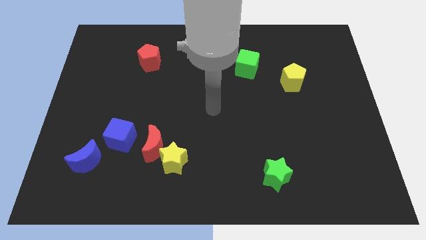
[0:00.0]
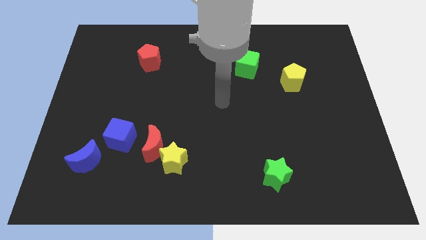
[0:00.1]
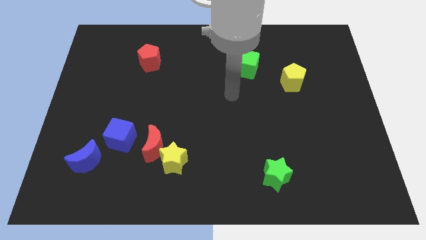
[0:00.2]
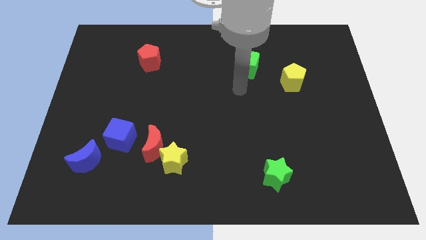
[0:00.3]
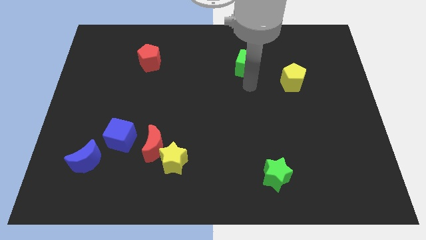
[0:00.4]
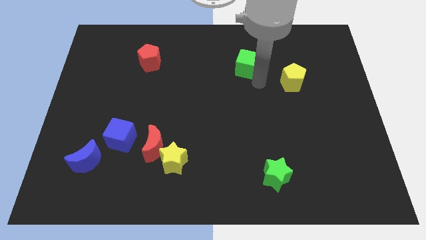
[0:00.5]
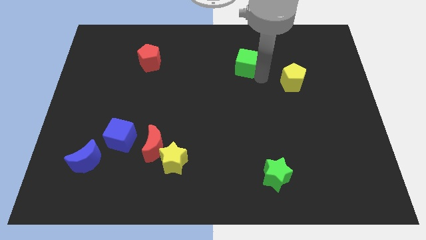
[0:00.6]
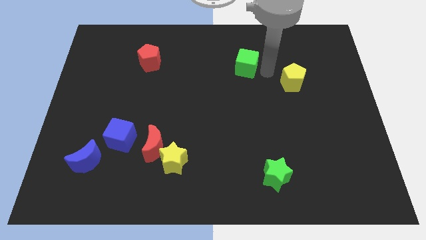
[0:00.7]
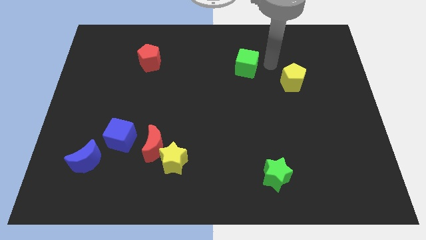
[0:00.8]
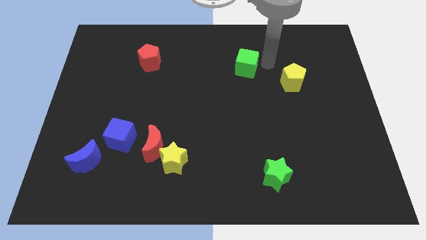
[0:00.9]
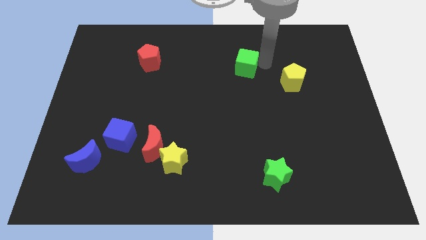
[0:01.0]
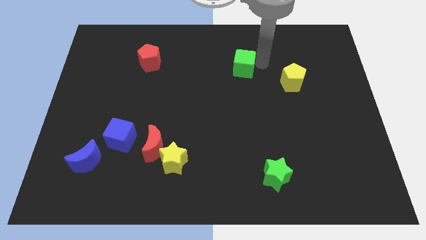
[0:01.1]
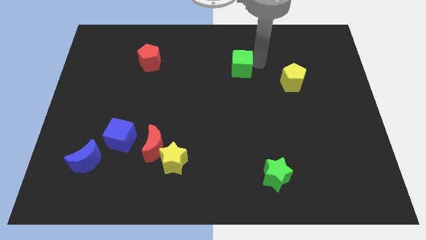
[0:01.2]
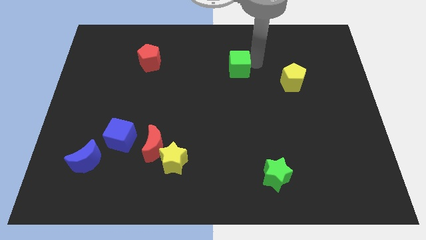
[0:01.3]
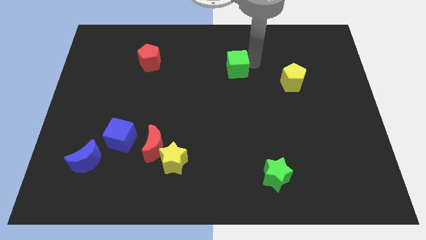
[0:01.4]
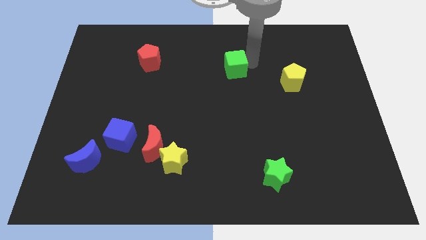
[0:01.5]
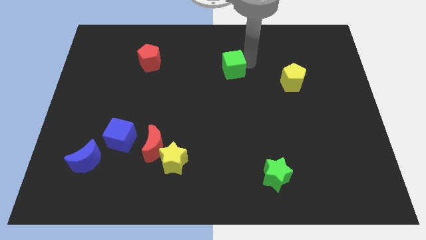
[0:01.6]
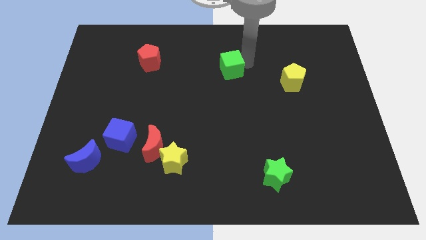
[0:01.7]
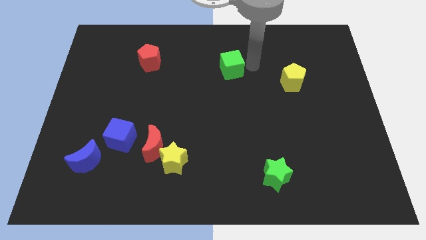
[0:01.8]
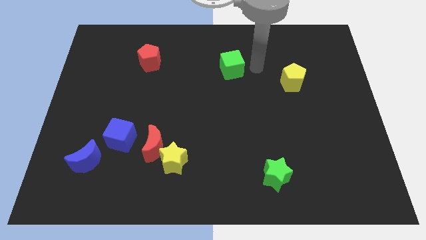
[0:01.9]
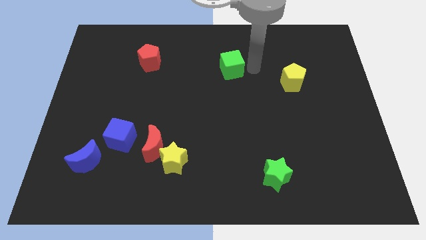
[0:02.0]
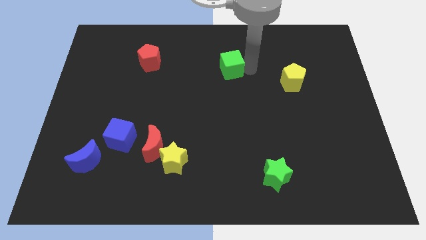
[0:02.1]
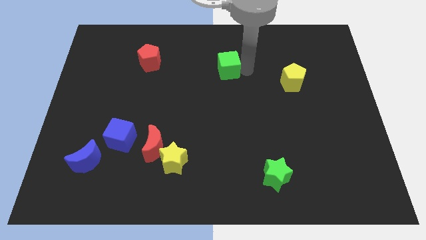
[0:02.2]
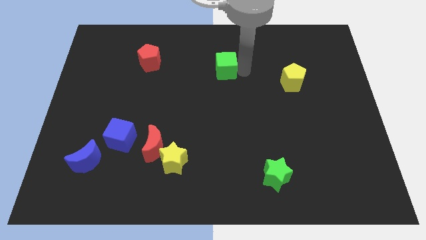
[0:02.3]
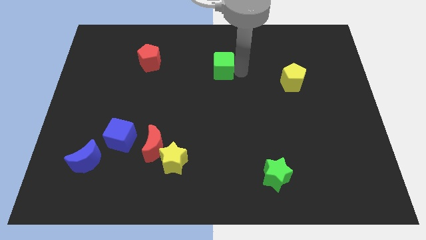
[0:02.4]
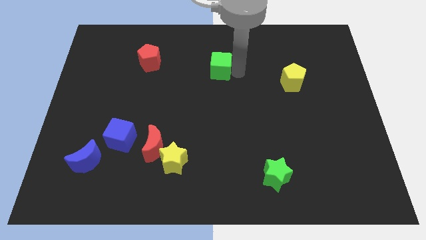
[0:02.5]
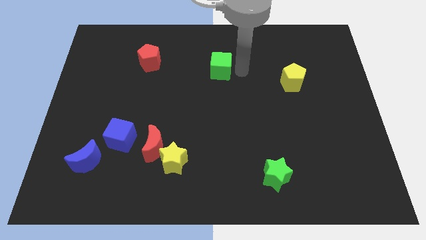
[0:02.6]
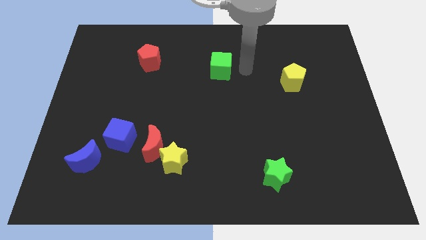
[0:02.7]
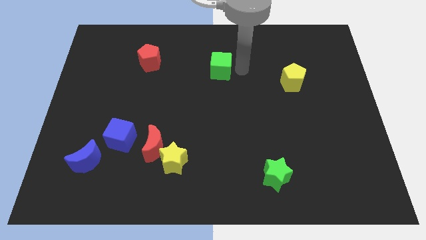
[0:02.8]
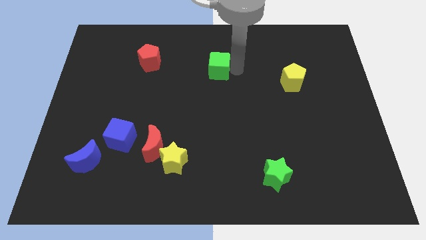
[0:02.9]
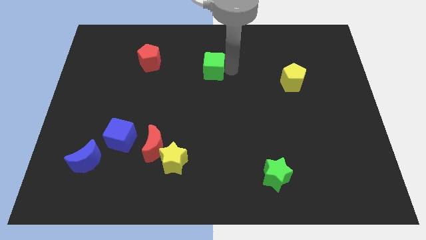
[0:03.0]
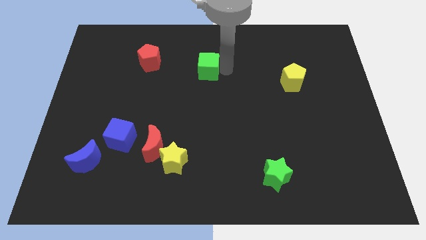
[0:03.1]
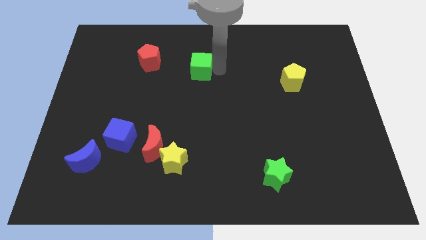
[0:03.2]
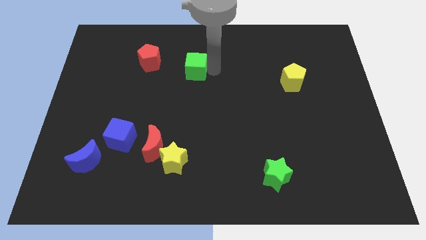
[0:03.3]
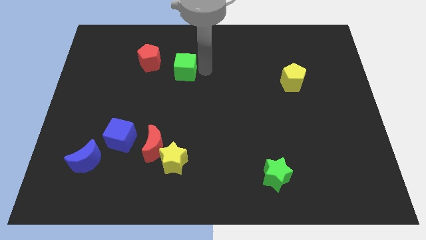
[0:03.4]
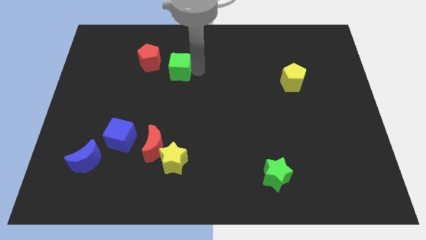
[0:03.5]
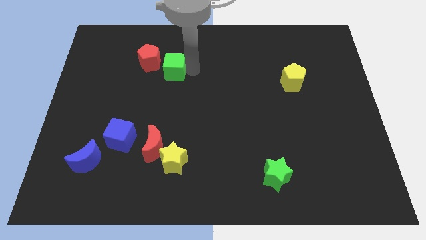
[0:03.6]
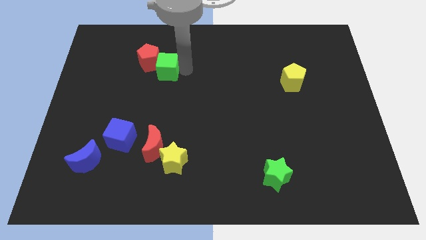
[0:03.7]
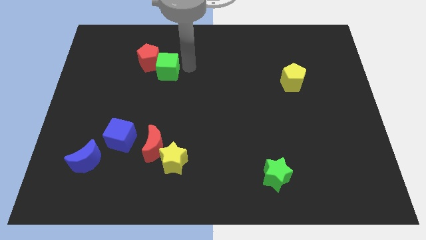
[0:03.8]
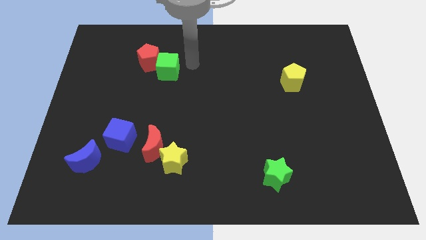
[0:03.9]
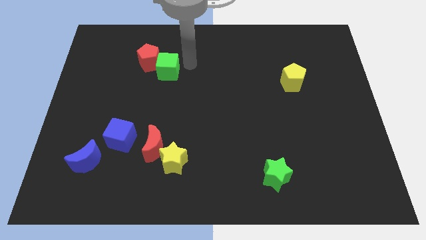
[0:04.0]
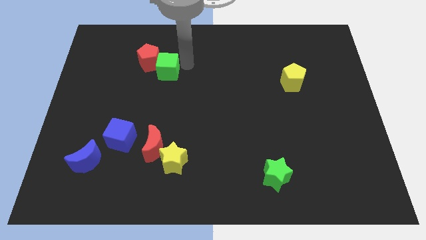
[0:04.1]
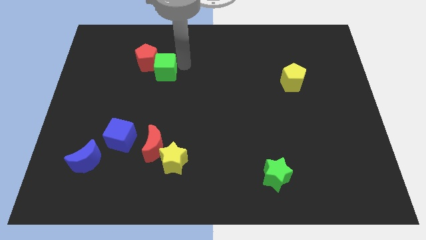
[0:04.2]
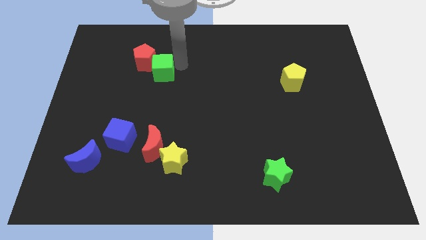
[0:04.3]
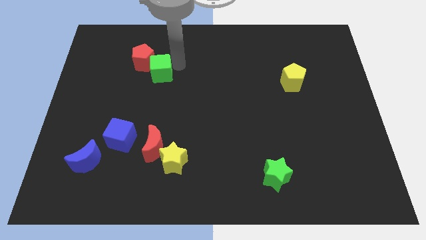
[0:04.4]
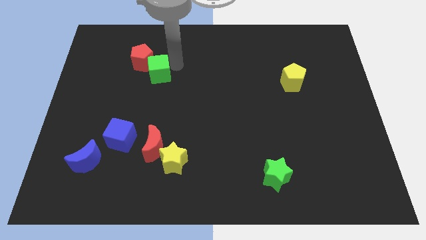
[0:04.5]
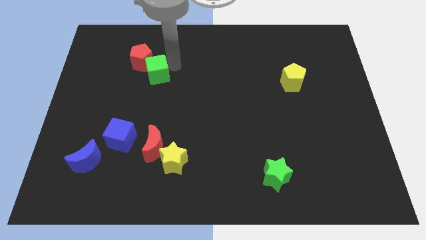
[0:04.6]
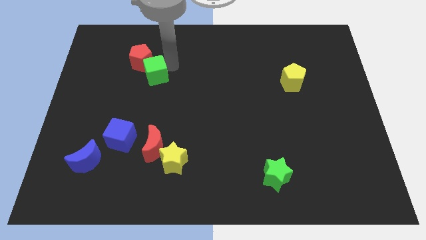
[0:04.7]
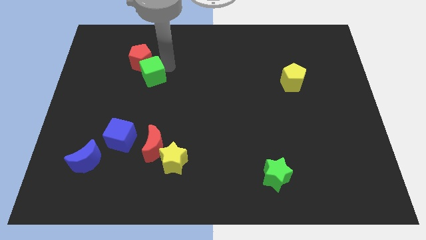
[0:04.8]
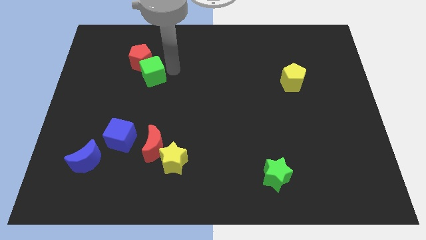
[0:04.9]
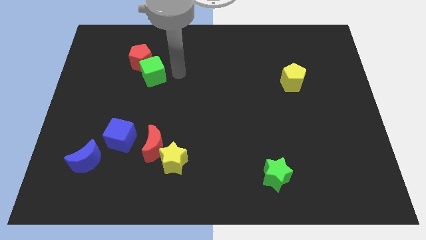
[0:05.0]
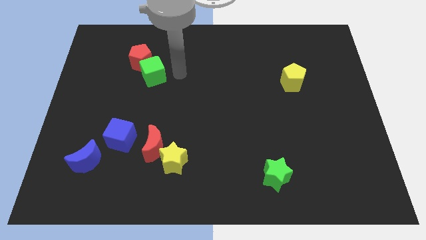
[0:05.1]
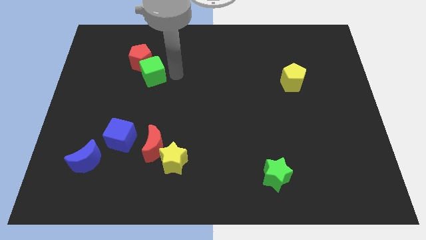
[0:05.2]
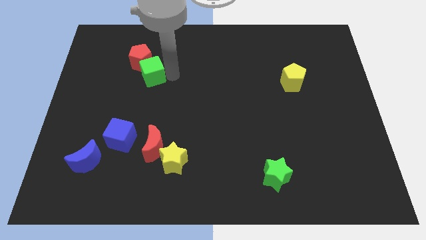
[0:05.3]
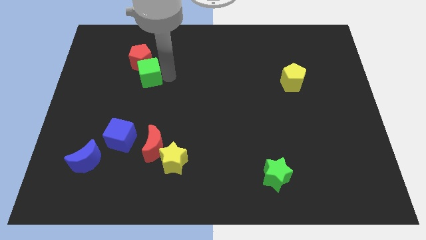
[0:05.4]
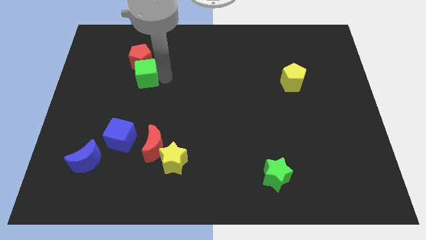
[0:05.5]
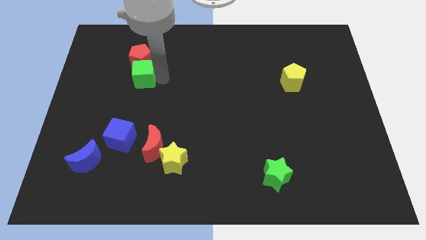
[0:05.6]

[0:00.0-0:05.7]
slide the green cube to the bottom left of the red pentagon

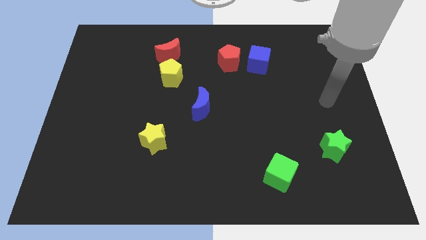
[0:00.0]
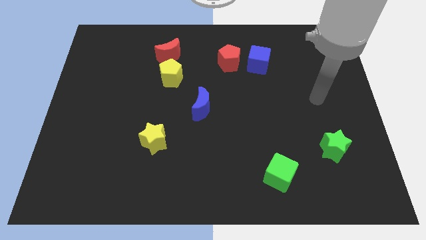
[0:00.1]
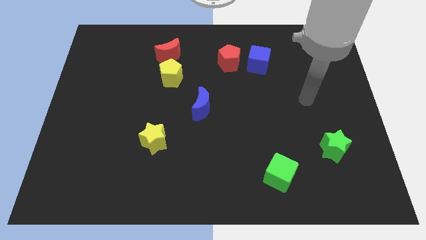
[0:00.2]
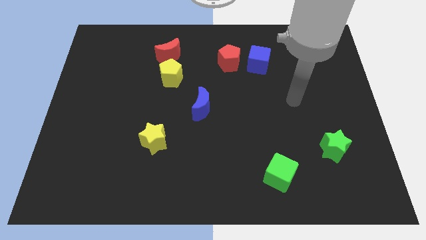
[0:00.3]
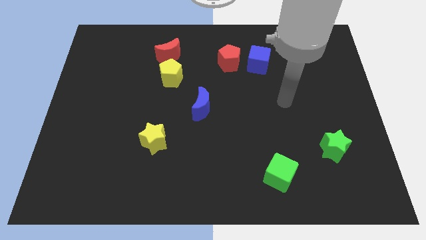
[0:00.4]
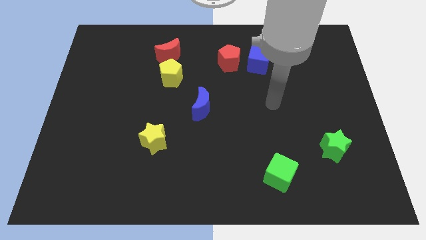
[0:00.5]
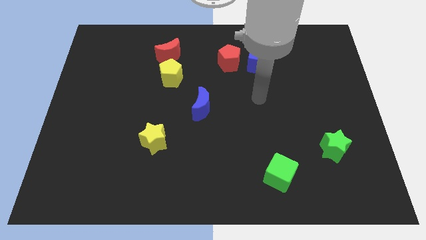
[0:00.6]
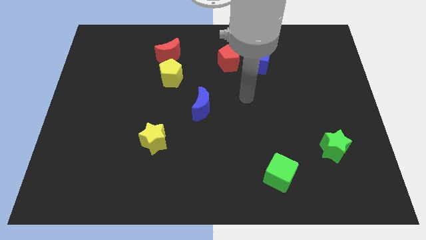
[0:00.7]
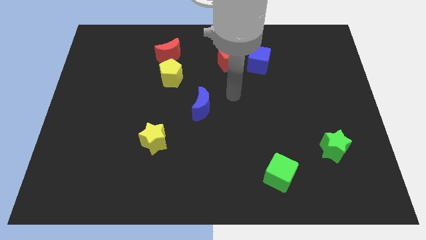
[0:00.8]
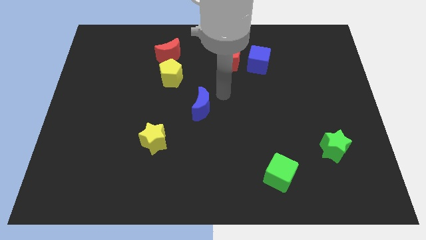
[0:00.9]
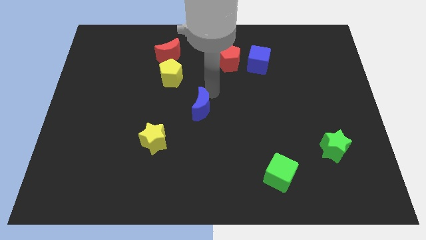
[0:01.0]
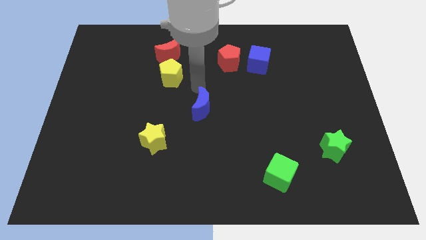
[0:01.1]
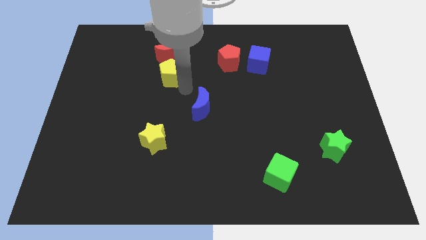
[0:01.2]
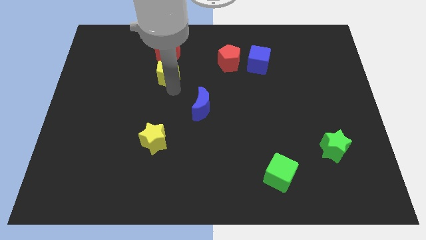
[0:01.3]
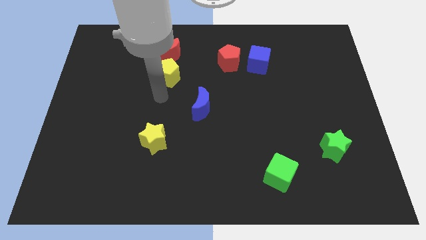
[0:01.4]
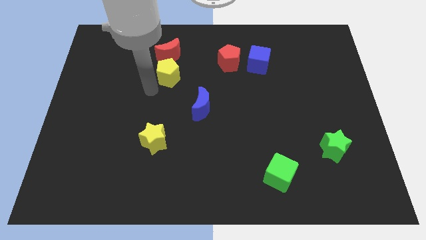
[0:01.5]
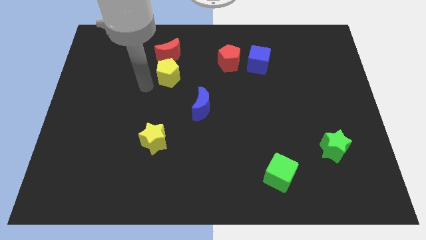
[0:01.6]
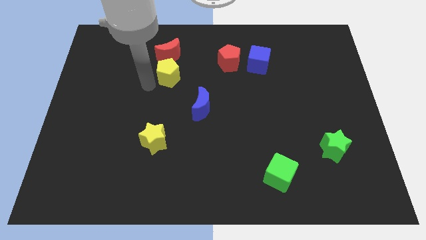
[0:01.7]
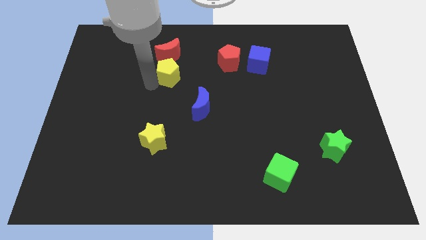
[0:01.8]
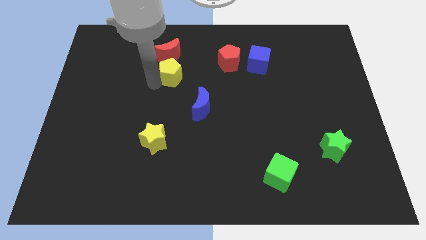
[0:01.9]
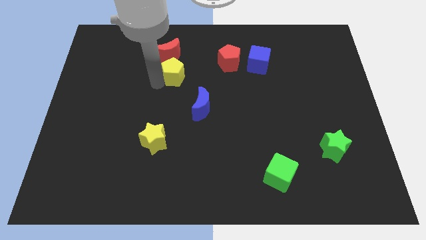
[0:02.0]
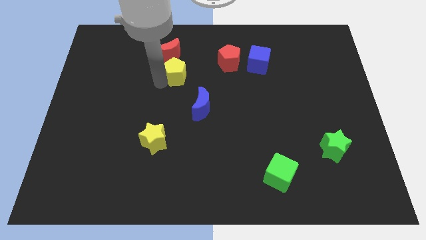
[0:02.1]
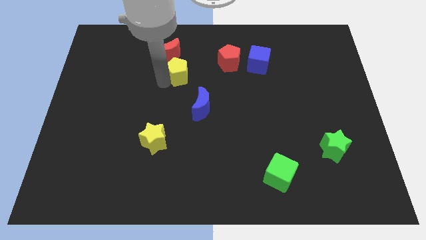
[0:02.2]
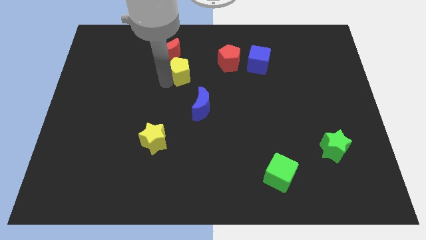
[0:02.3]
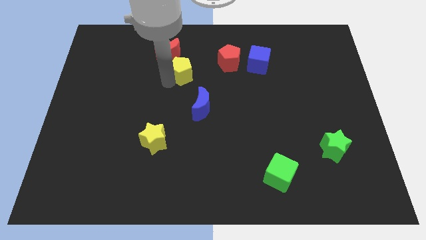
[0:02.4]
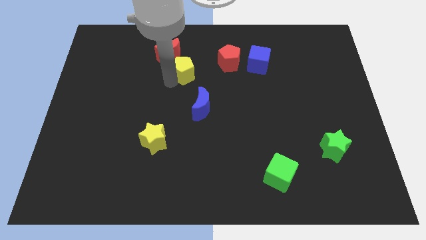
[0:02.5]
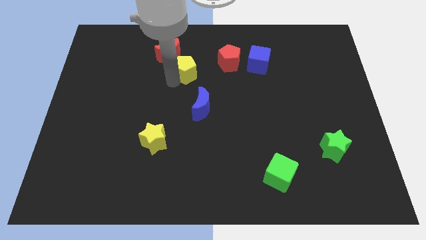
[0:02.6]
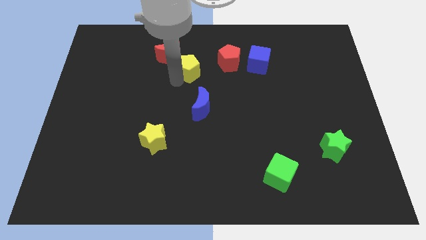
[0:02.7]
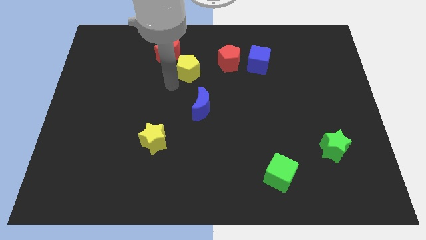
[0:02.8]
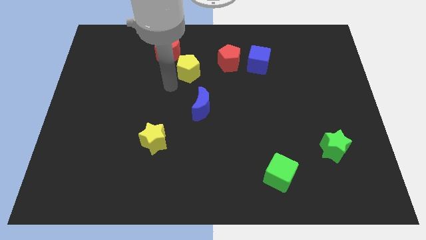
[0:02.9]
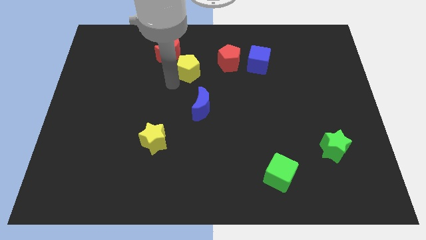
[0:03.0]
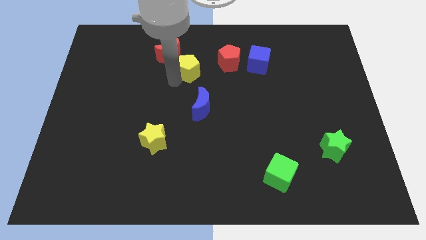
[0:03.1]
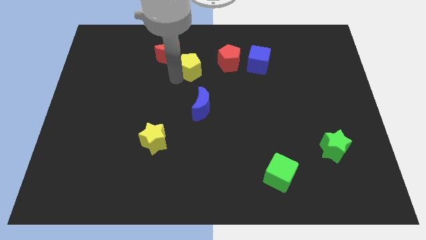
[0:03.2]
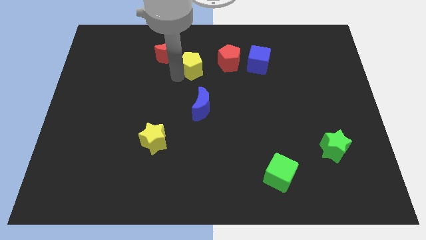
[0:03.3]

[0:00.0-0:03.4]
slide the yellow pentagon just right of the red moon
